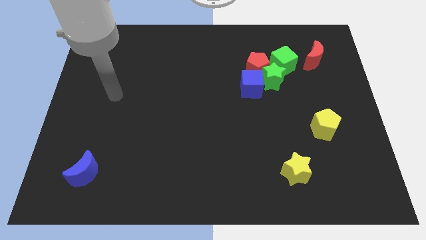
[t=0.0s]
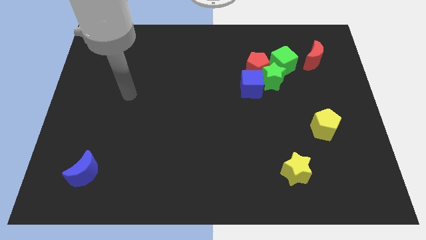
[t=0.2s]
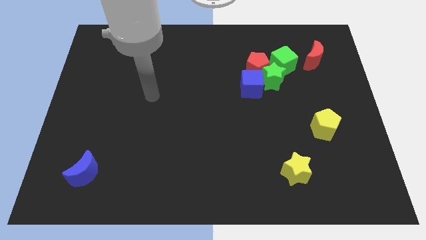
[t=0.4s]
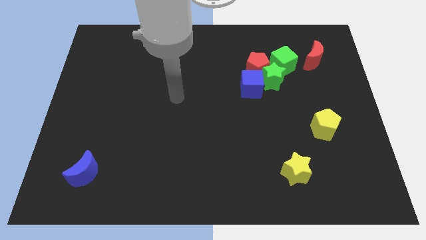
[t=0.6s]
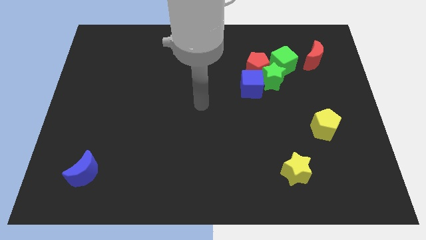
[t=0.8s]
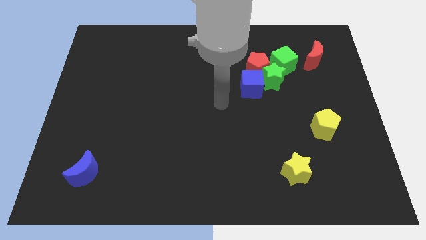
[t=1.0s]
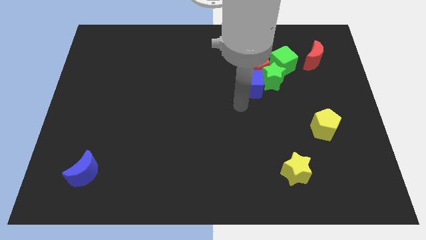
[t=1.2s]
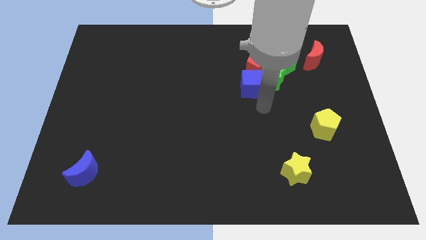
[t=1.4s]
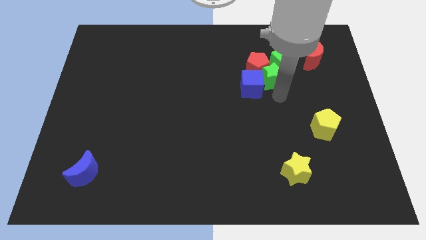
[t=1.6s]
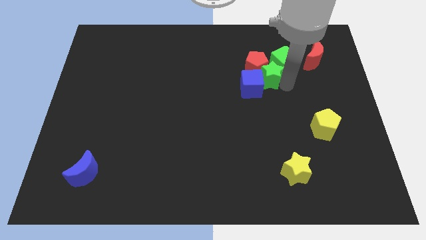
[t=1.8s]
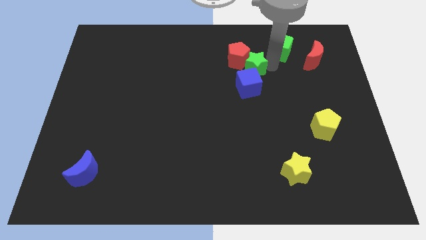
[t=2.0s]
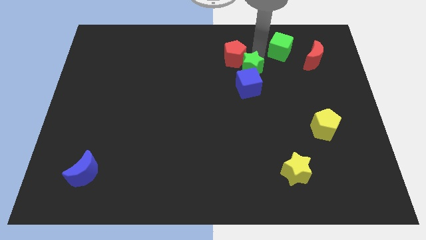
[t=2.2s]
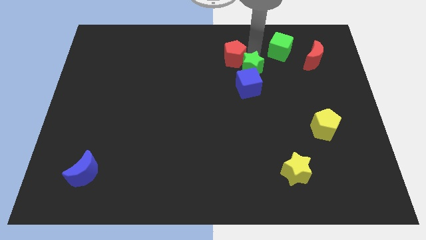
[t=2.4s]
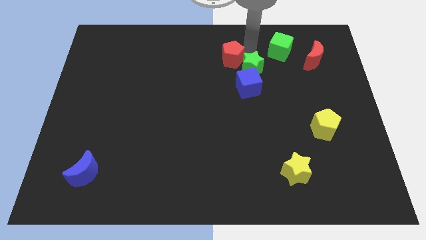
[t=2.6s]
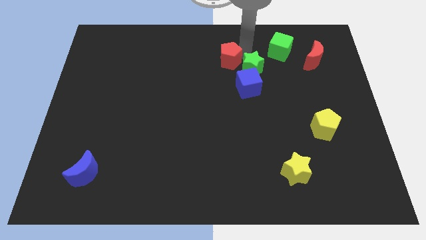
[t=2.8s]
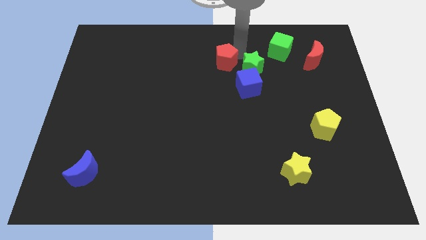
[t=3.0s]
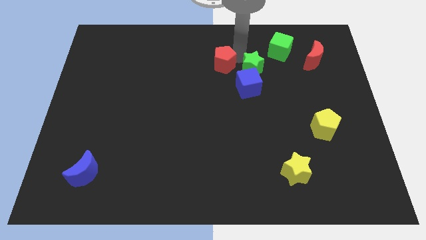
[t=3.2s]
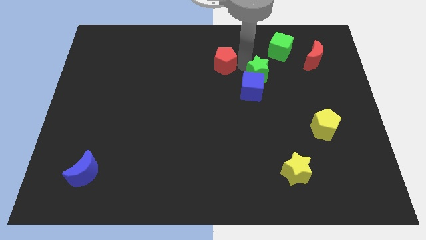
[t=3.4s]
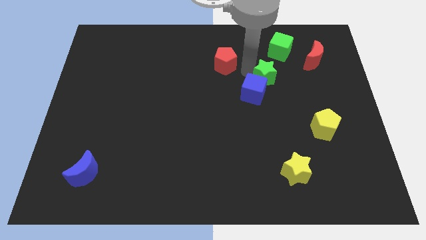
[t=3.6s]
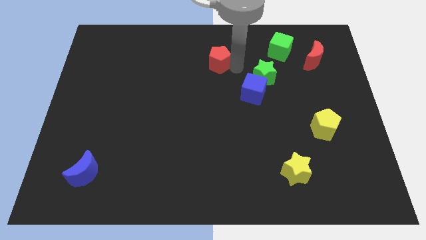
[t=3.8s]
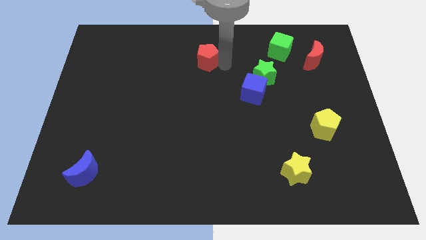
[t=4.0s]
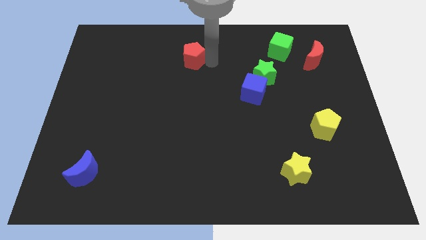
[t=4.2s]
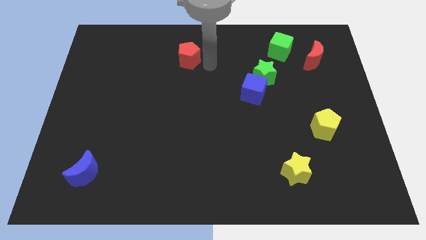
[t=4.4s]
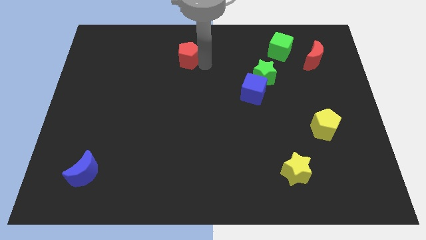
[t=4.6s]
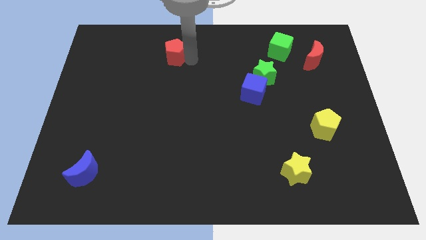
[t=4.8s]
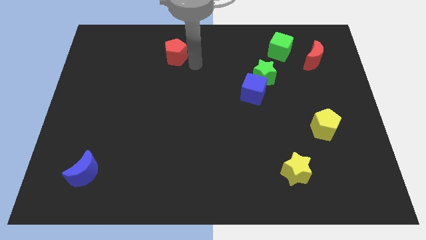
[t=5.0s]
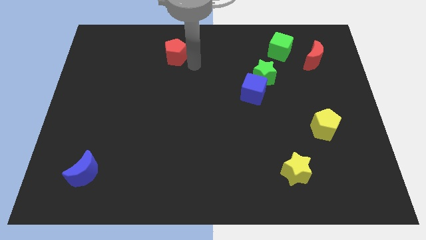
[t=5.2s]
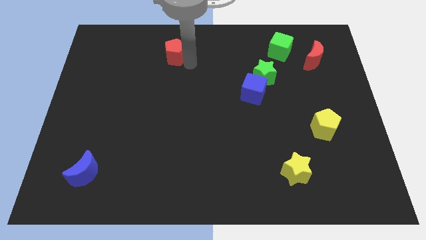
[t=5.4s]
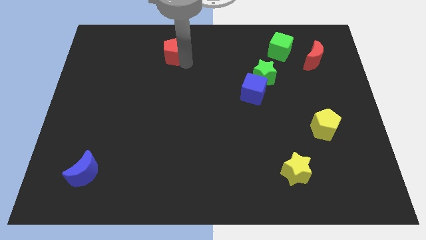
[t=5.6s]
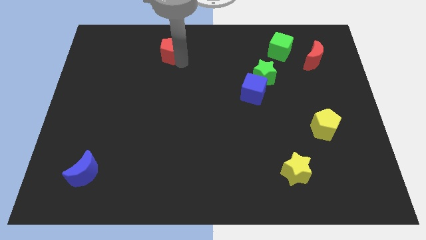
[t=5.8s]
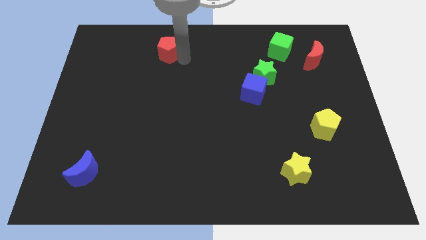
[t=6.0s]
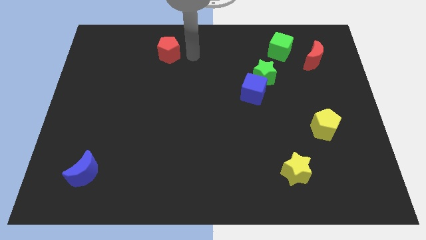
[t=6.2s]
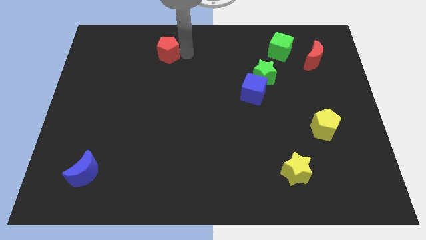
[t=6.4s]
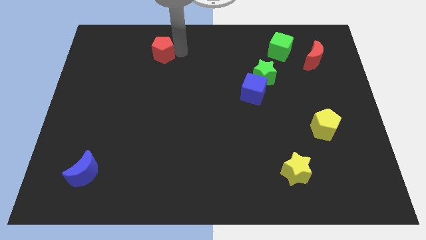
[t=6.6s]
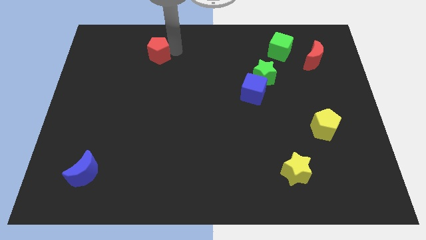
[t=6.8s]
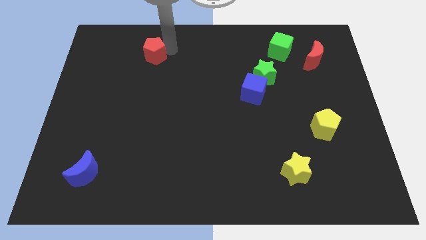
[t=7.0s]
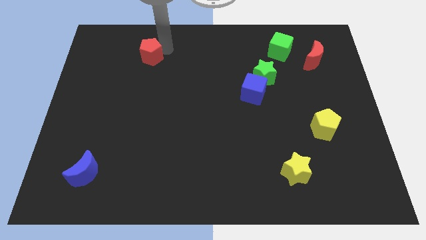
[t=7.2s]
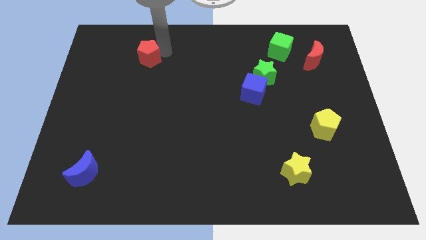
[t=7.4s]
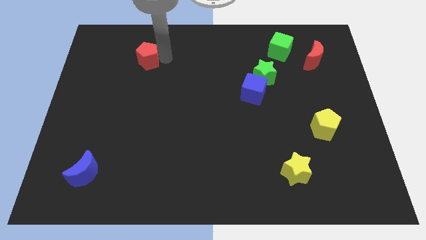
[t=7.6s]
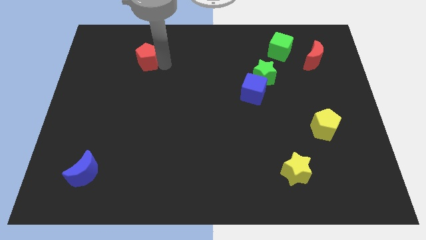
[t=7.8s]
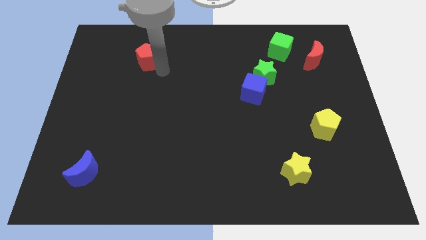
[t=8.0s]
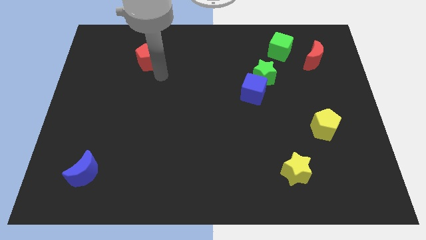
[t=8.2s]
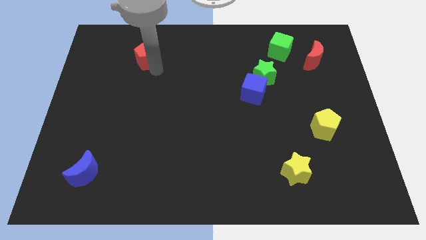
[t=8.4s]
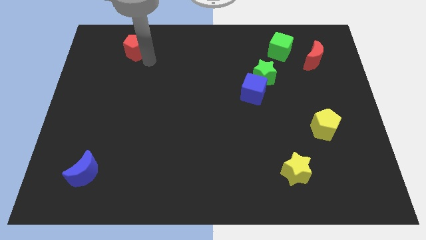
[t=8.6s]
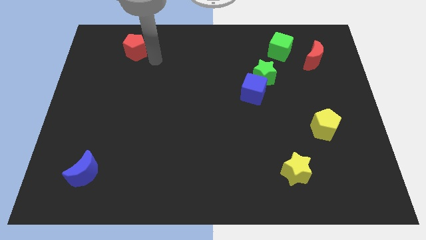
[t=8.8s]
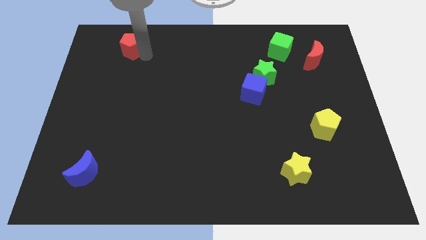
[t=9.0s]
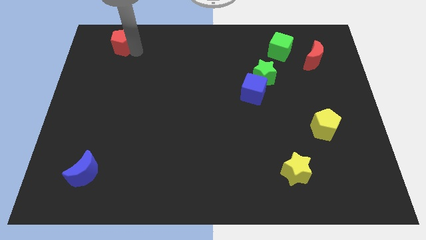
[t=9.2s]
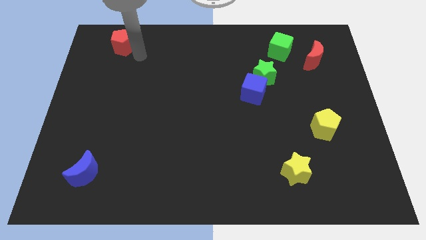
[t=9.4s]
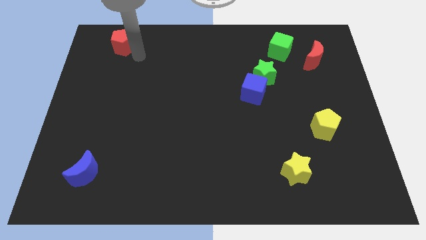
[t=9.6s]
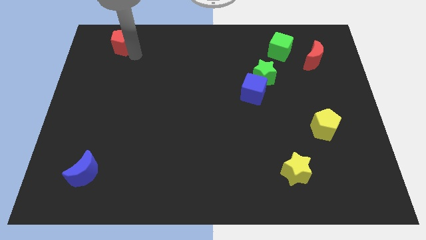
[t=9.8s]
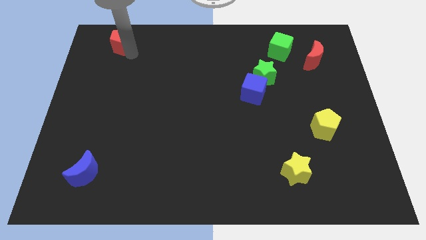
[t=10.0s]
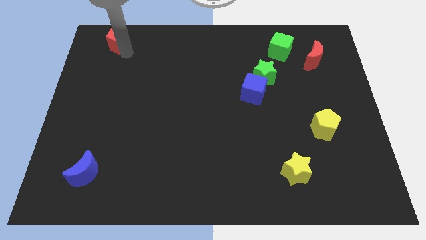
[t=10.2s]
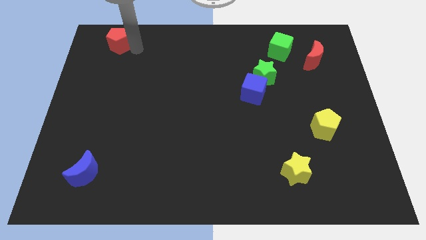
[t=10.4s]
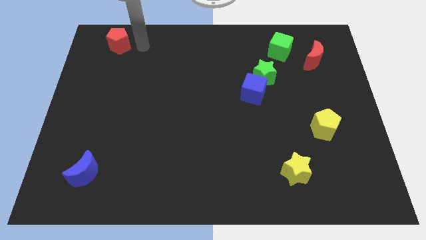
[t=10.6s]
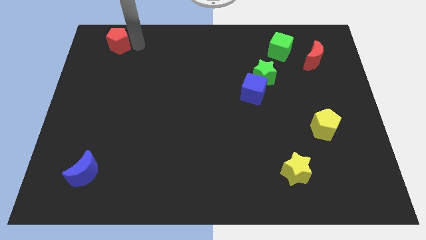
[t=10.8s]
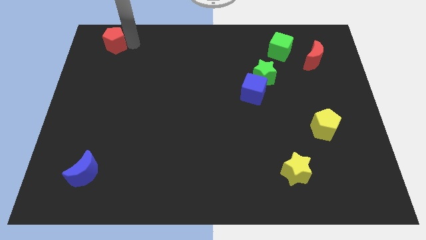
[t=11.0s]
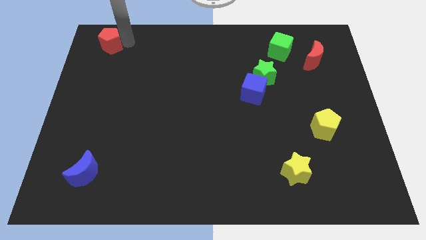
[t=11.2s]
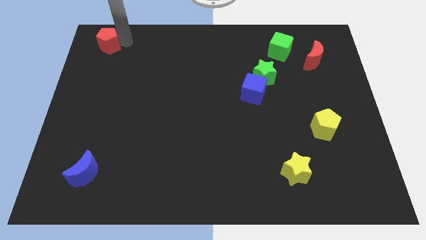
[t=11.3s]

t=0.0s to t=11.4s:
push the red pentagon to the top left corner

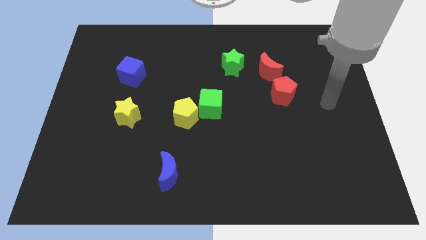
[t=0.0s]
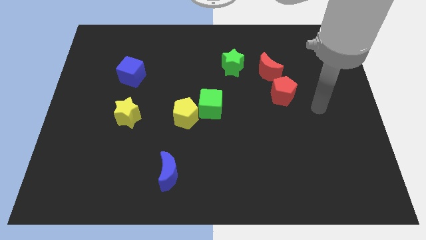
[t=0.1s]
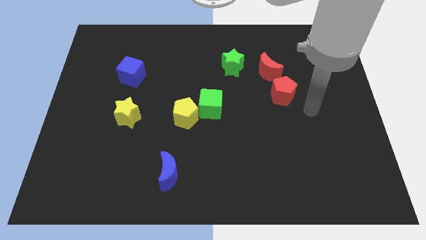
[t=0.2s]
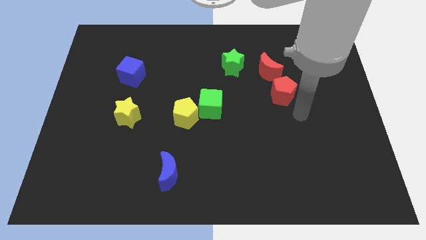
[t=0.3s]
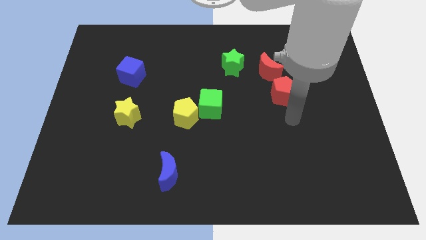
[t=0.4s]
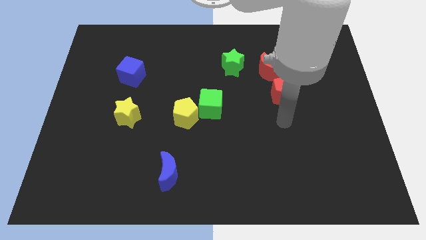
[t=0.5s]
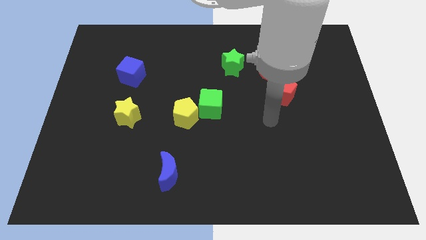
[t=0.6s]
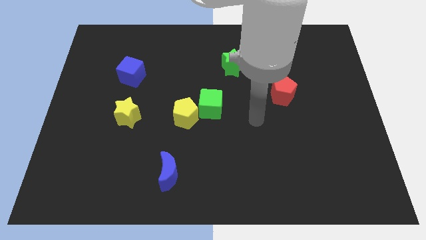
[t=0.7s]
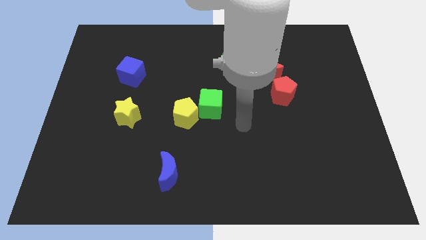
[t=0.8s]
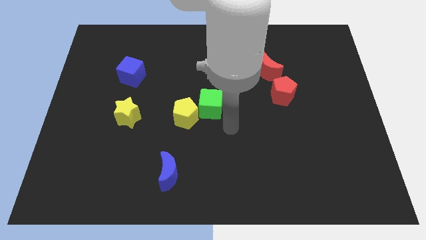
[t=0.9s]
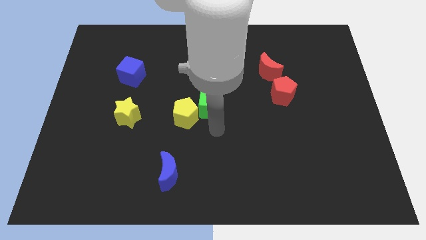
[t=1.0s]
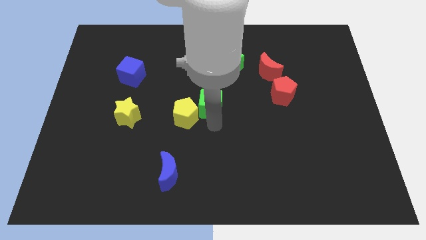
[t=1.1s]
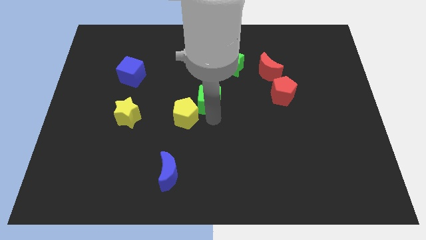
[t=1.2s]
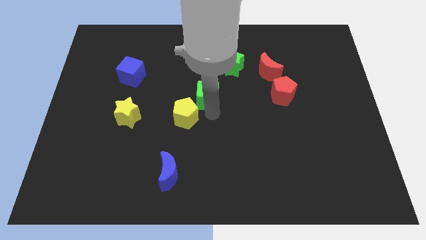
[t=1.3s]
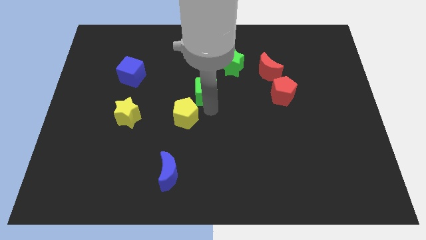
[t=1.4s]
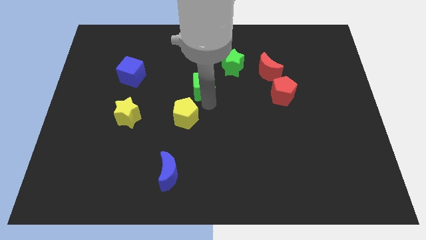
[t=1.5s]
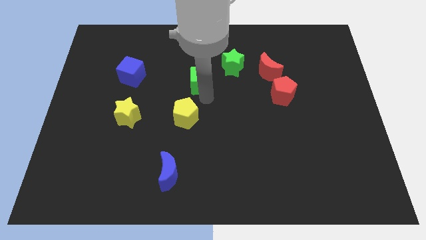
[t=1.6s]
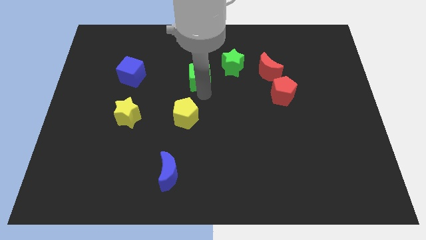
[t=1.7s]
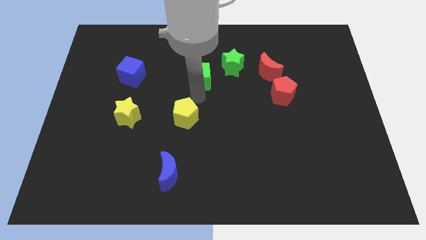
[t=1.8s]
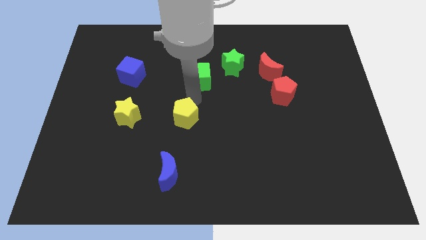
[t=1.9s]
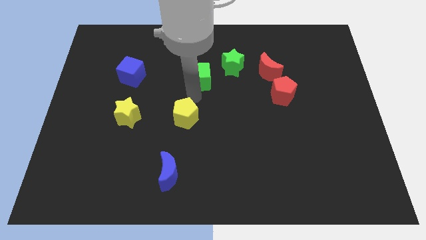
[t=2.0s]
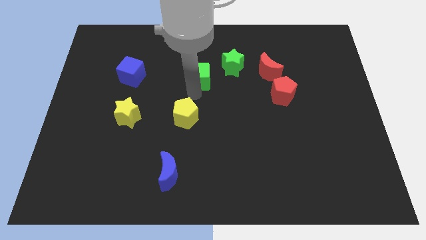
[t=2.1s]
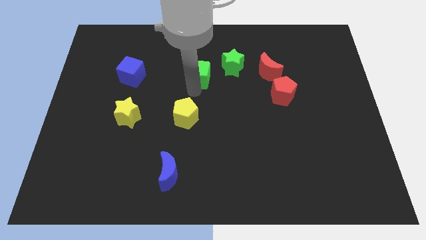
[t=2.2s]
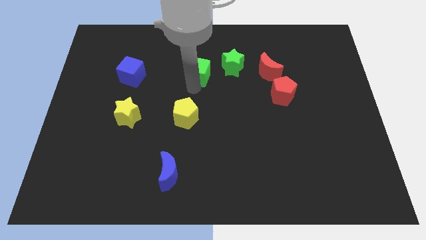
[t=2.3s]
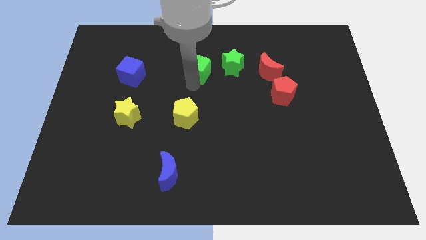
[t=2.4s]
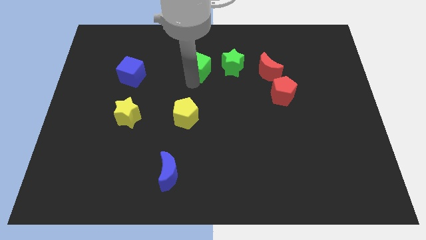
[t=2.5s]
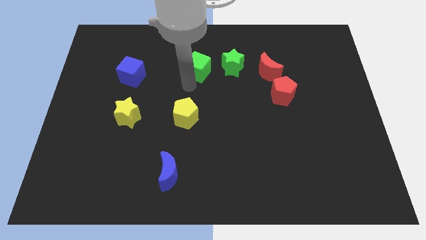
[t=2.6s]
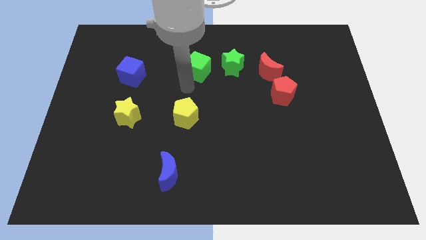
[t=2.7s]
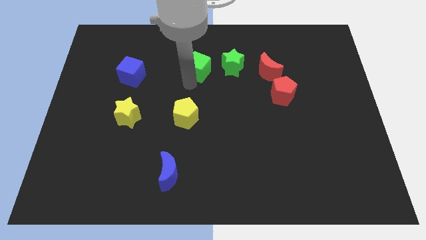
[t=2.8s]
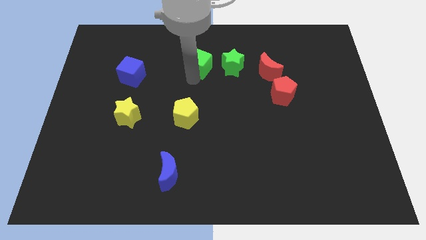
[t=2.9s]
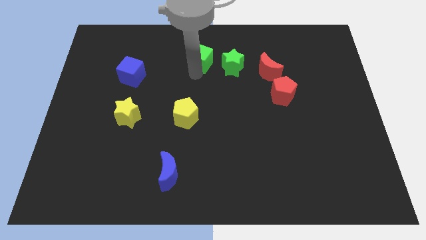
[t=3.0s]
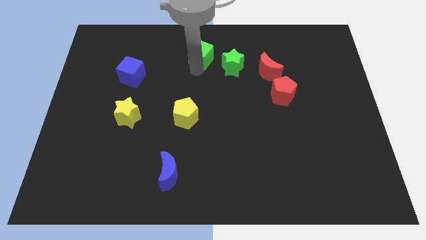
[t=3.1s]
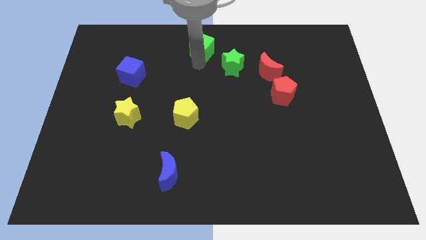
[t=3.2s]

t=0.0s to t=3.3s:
slide the green cube to the top side
